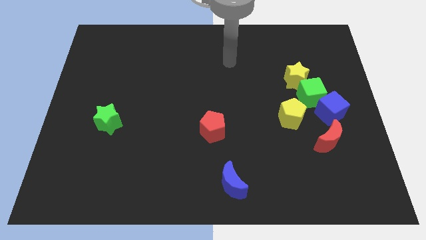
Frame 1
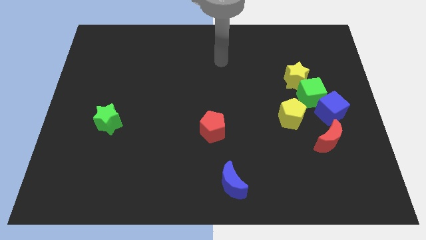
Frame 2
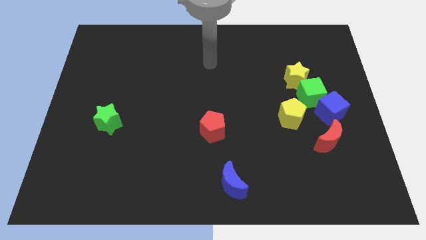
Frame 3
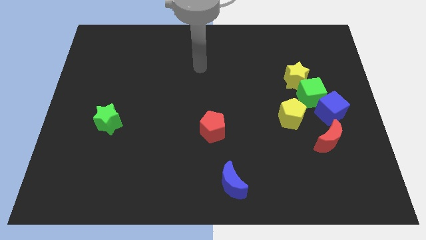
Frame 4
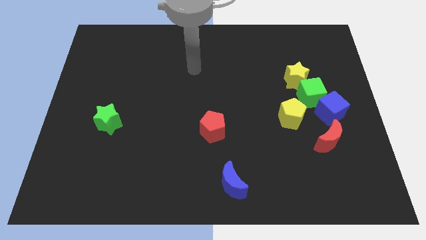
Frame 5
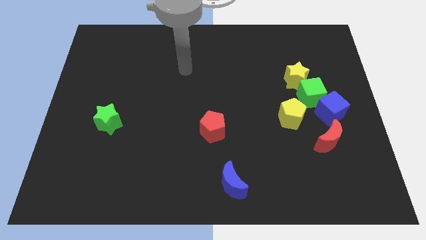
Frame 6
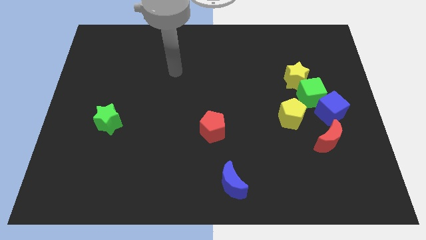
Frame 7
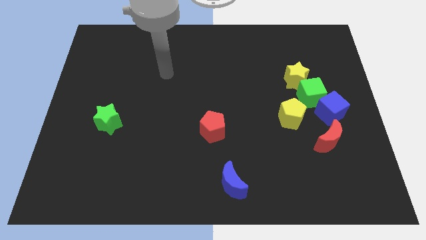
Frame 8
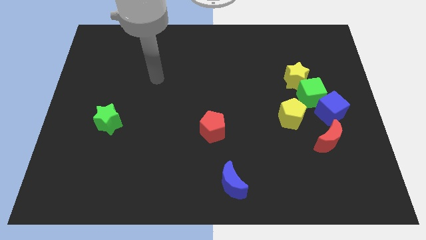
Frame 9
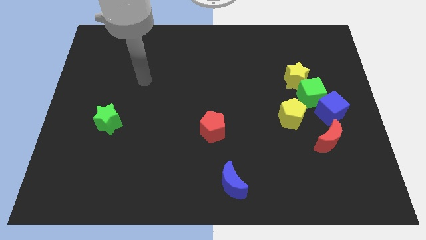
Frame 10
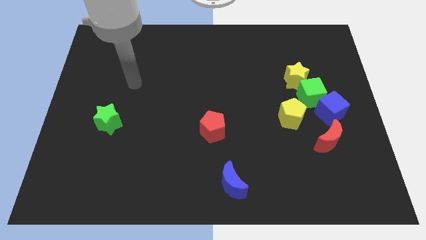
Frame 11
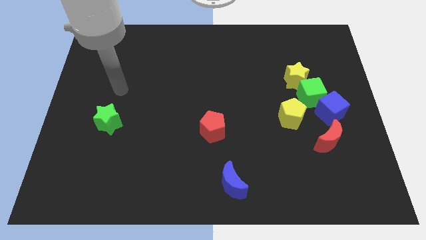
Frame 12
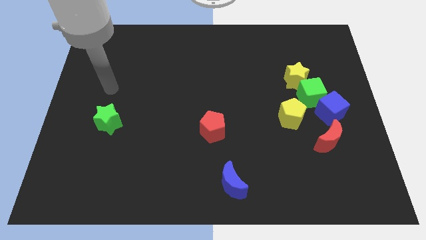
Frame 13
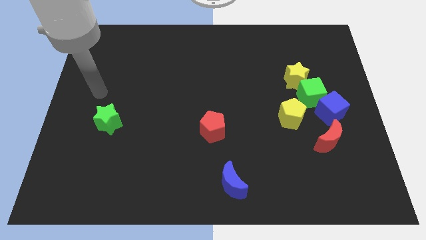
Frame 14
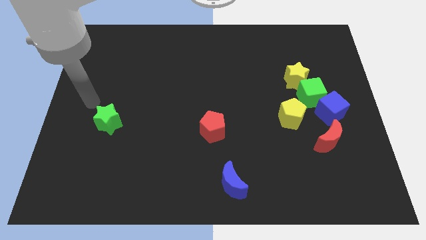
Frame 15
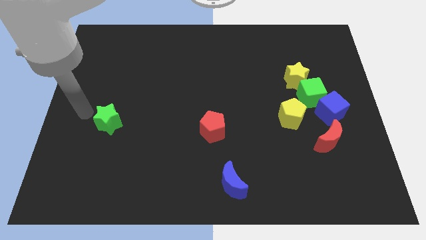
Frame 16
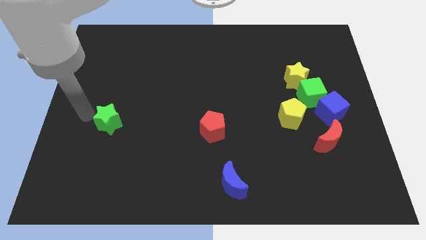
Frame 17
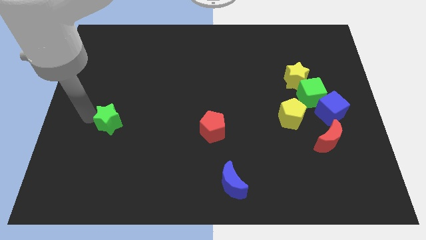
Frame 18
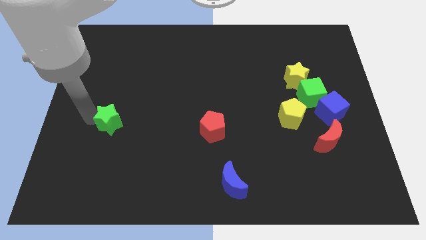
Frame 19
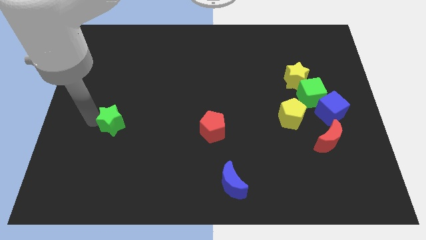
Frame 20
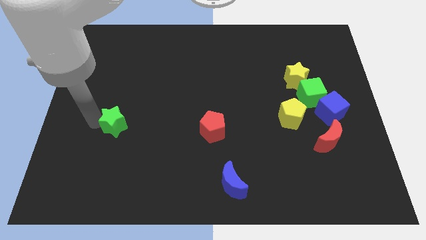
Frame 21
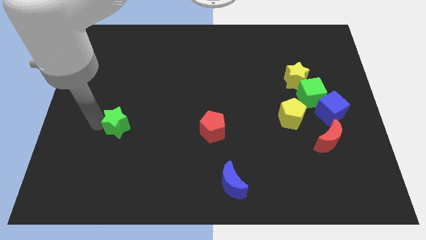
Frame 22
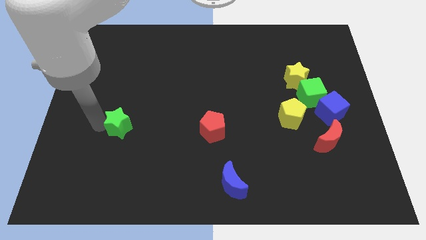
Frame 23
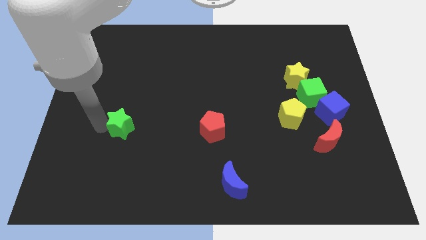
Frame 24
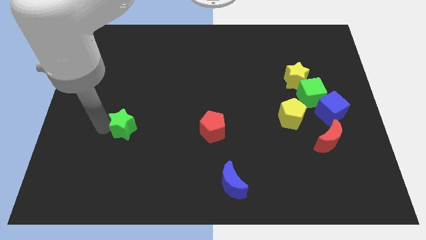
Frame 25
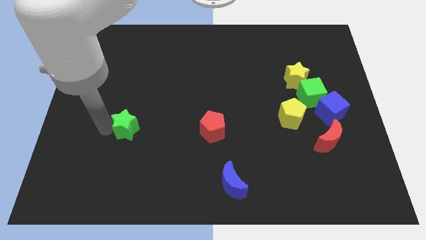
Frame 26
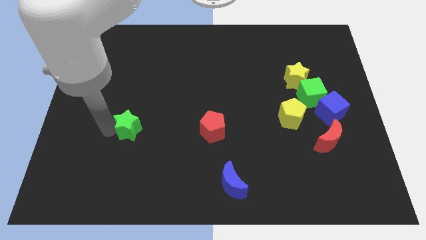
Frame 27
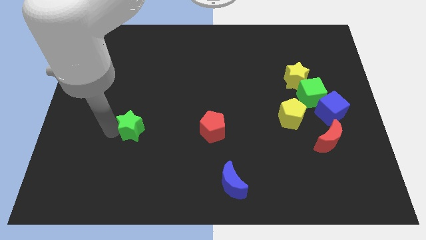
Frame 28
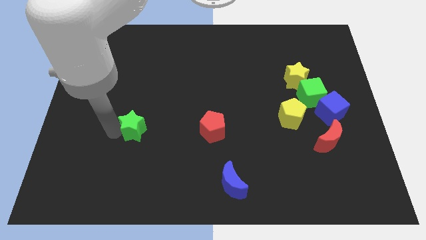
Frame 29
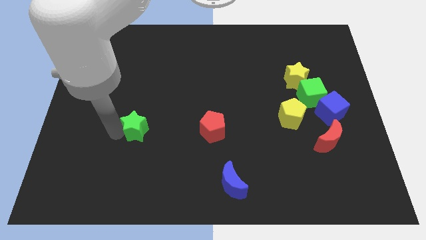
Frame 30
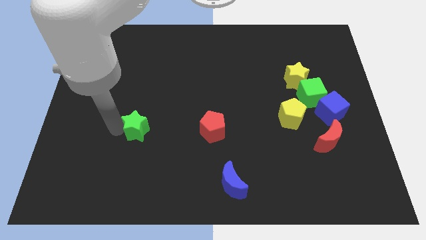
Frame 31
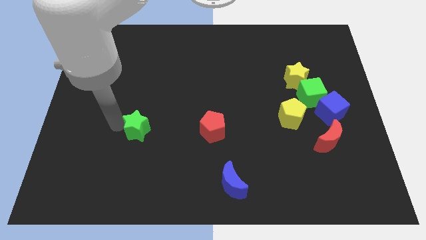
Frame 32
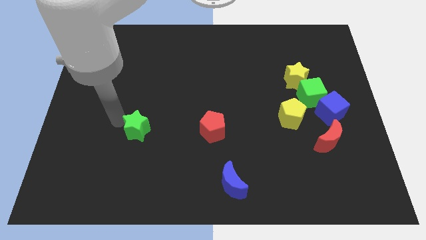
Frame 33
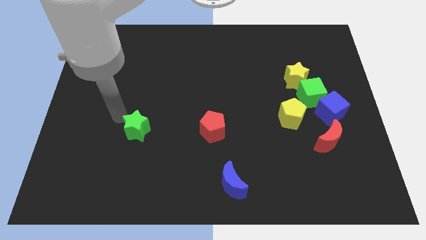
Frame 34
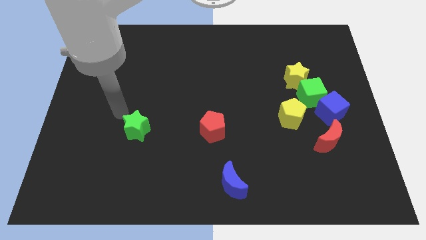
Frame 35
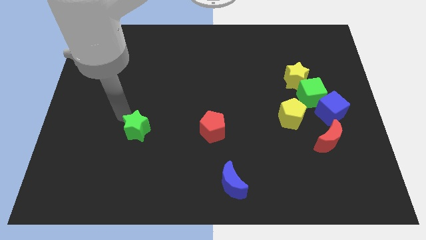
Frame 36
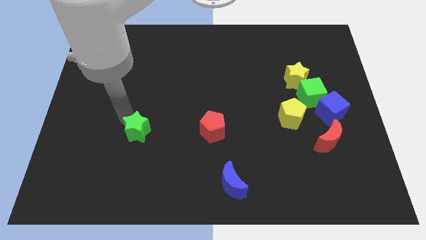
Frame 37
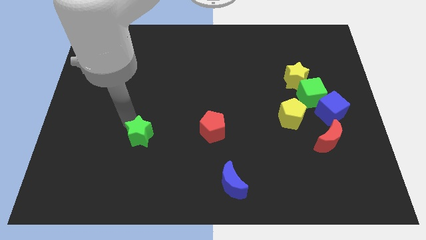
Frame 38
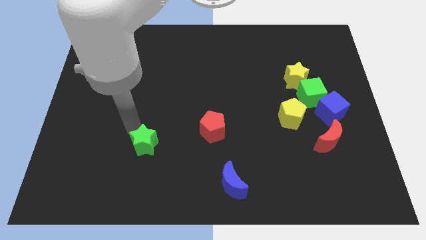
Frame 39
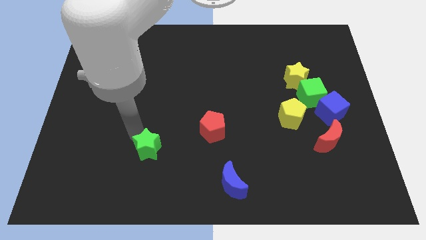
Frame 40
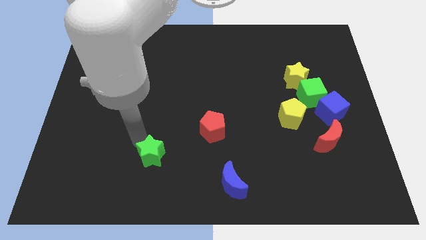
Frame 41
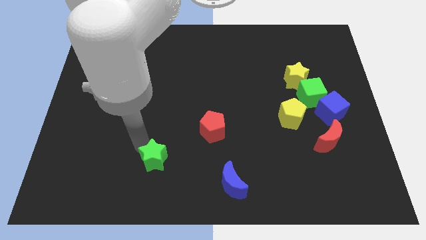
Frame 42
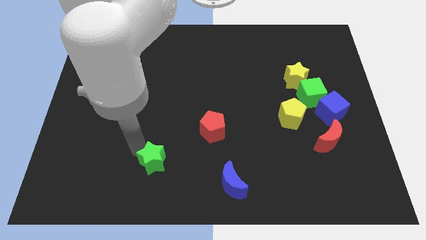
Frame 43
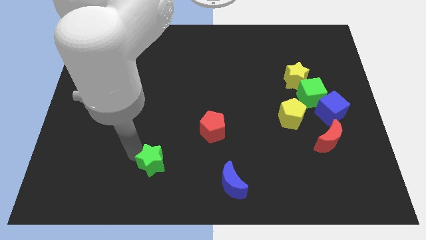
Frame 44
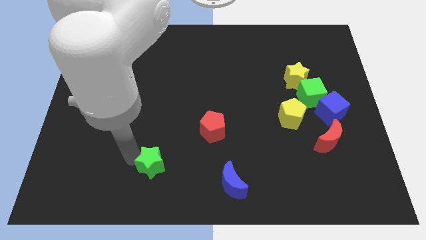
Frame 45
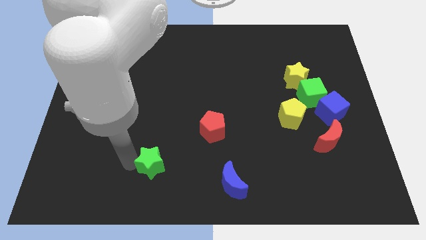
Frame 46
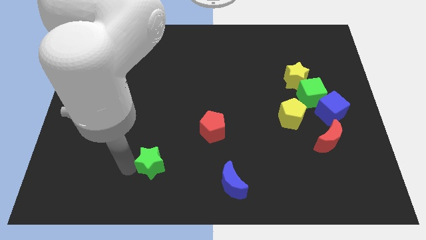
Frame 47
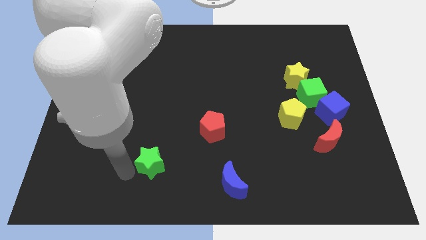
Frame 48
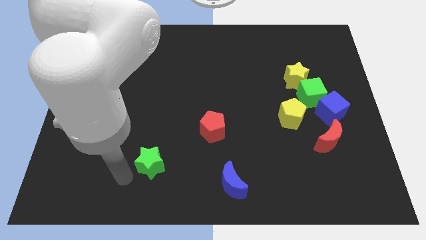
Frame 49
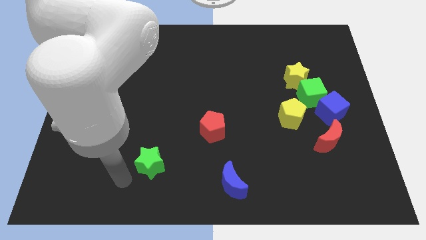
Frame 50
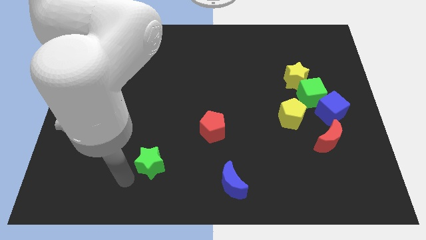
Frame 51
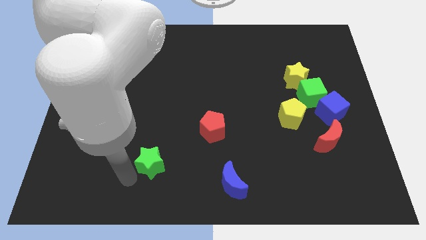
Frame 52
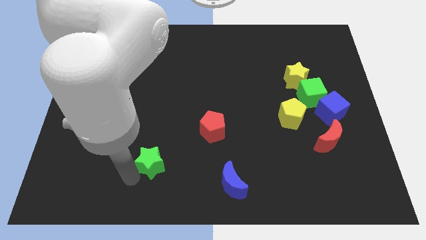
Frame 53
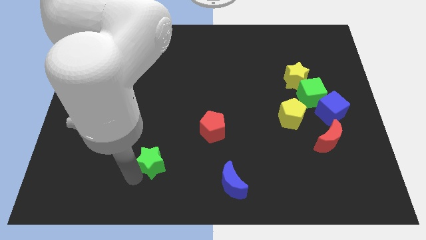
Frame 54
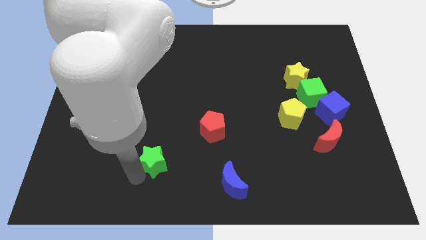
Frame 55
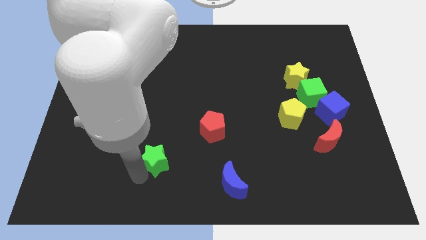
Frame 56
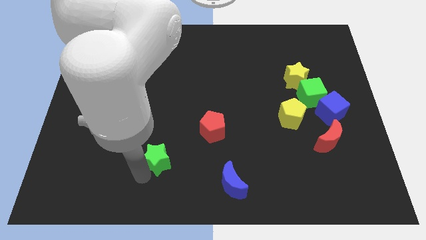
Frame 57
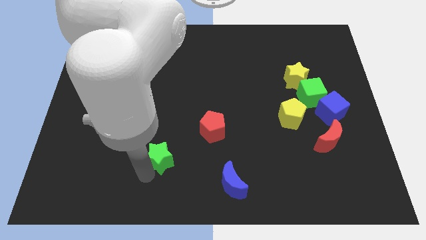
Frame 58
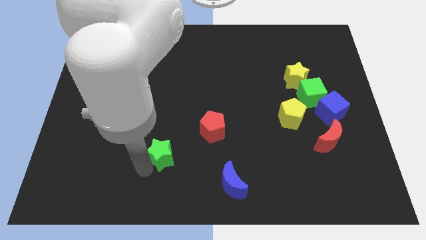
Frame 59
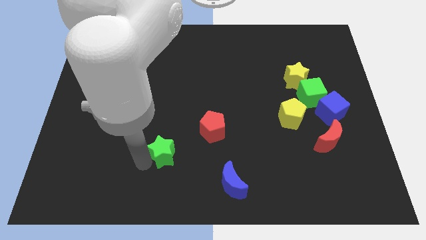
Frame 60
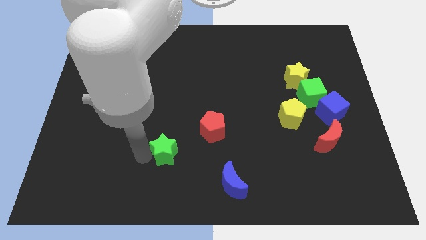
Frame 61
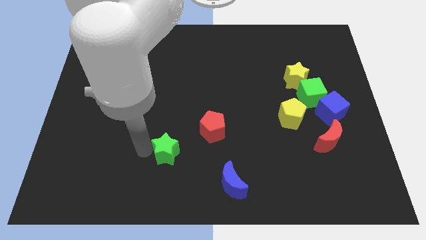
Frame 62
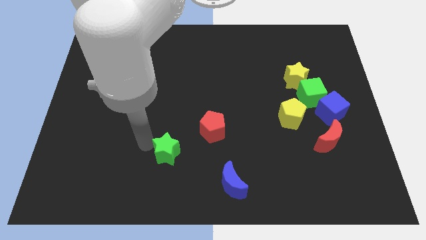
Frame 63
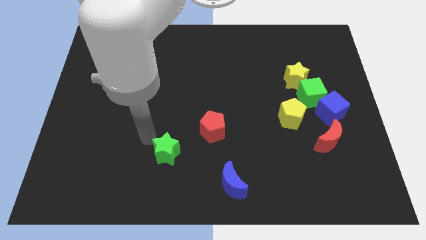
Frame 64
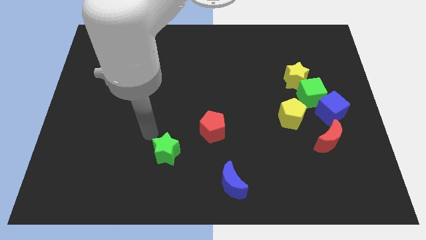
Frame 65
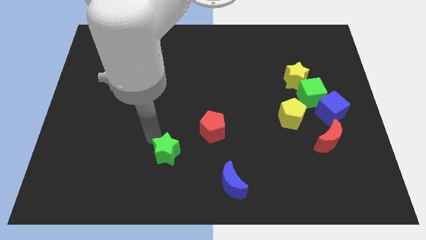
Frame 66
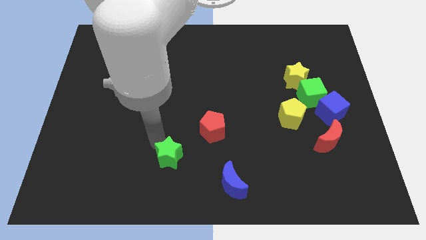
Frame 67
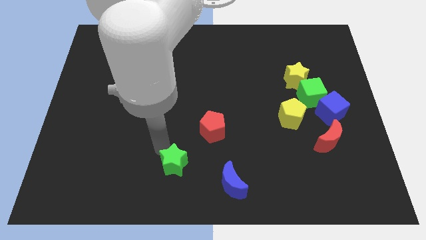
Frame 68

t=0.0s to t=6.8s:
push the green star to the bottom
